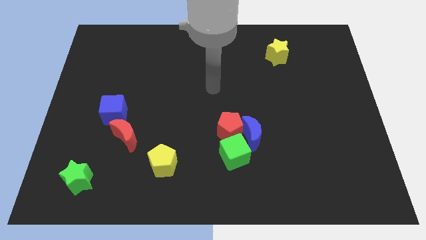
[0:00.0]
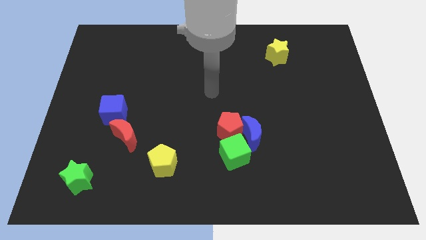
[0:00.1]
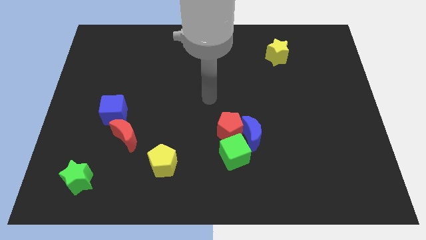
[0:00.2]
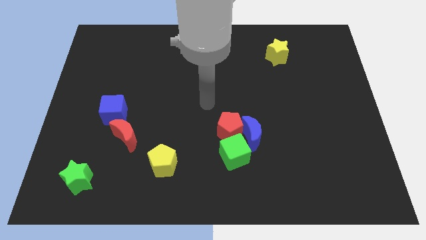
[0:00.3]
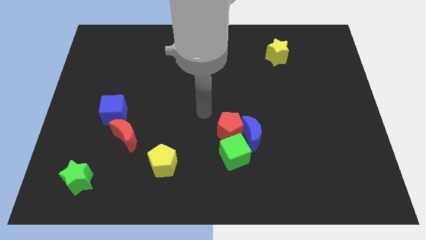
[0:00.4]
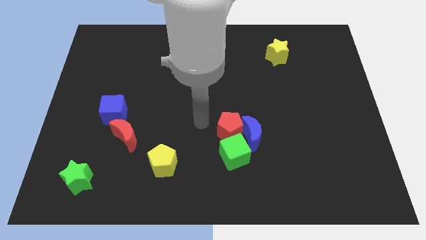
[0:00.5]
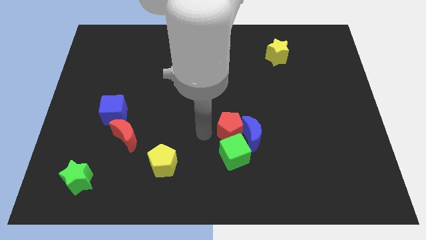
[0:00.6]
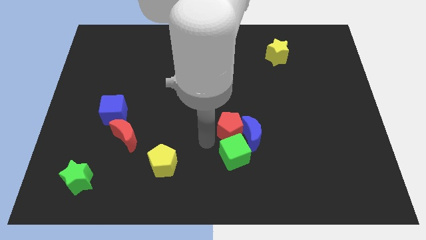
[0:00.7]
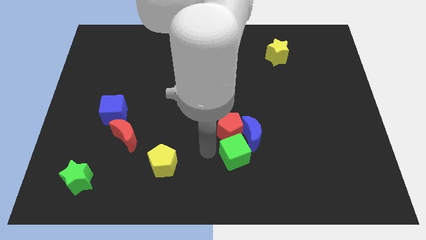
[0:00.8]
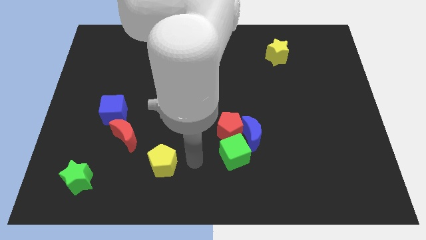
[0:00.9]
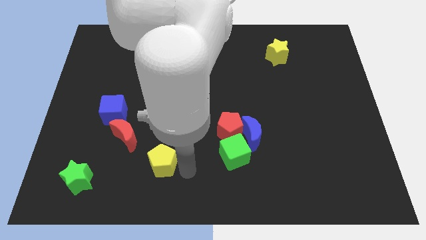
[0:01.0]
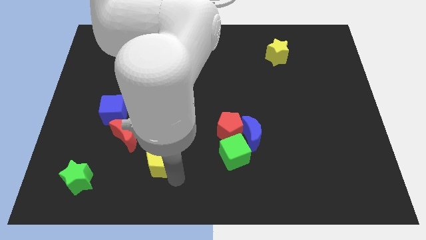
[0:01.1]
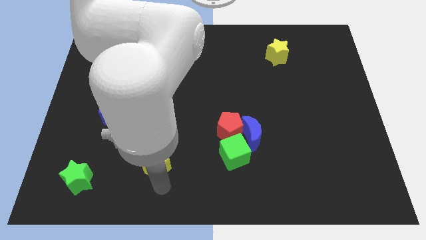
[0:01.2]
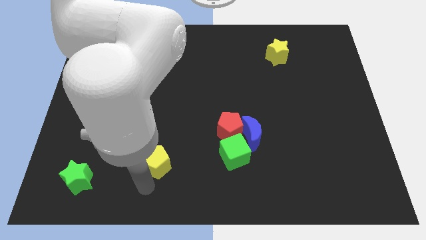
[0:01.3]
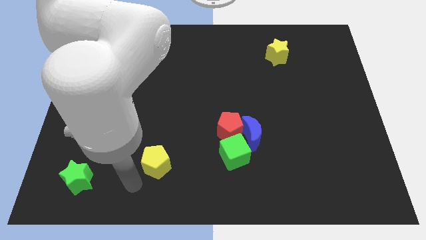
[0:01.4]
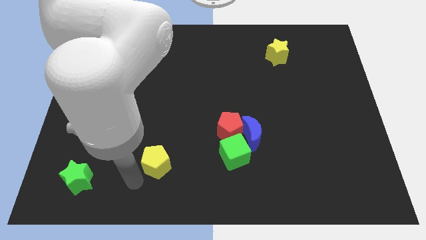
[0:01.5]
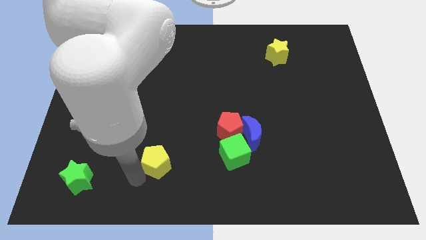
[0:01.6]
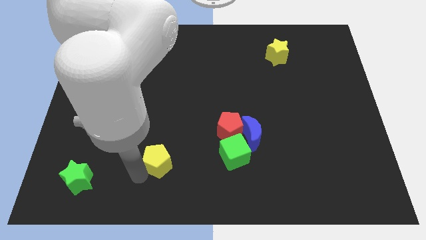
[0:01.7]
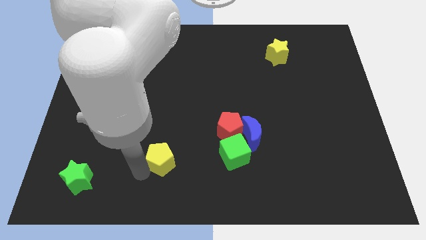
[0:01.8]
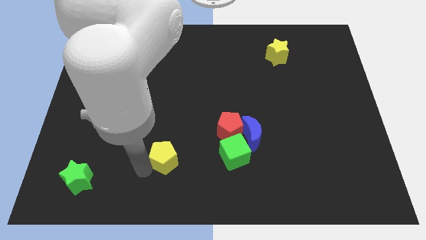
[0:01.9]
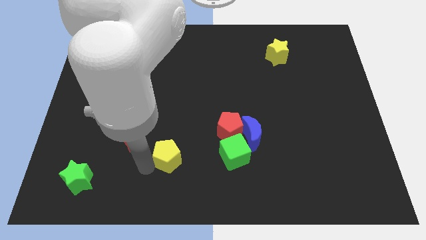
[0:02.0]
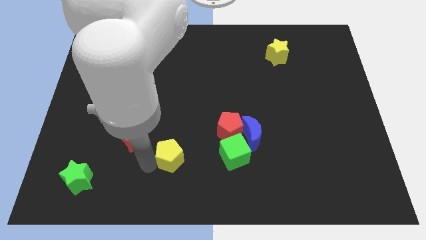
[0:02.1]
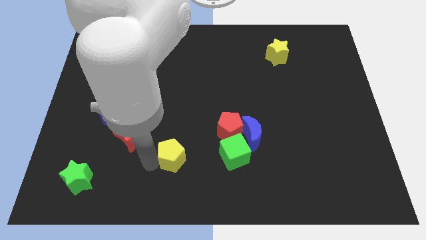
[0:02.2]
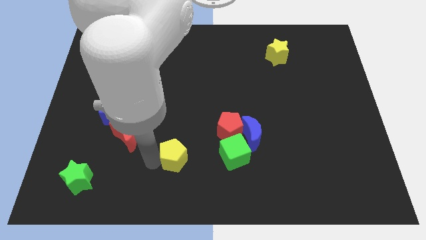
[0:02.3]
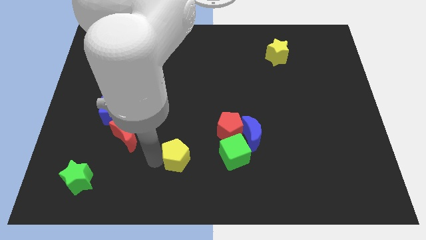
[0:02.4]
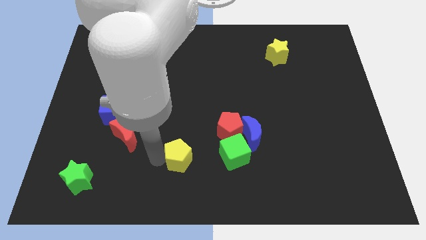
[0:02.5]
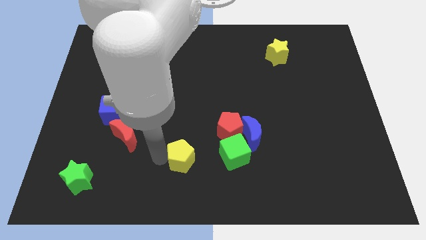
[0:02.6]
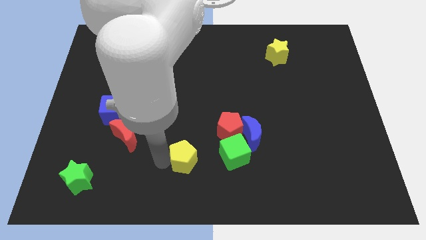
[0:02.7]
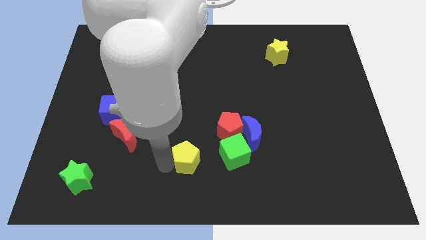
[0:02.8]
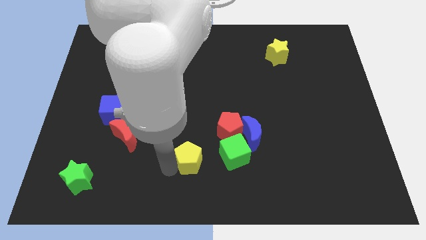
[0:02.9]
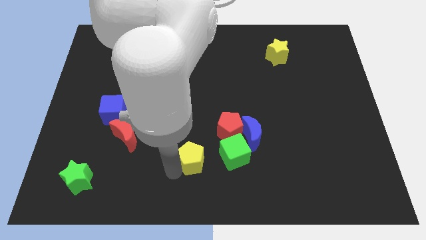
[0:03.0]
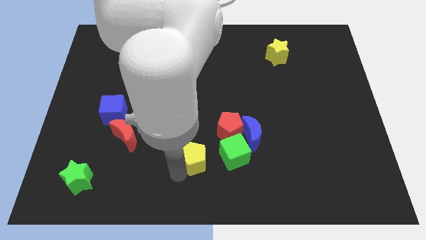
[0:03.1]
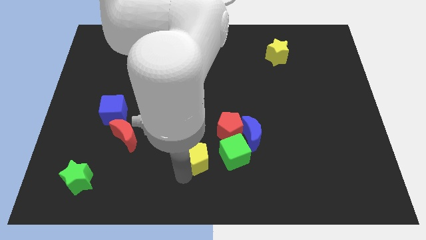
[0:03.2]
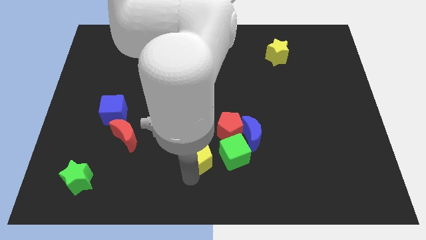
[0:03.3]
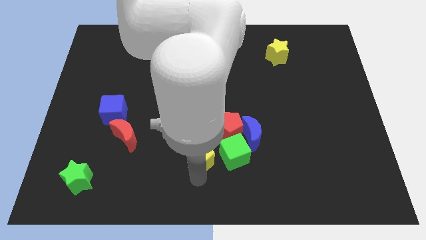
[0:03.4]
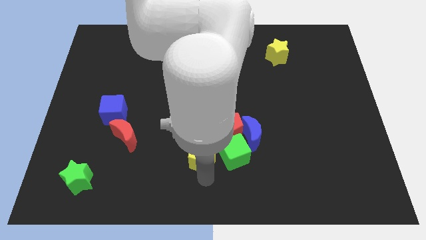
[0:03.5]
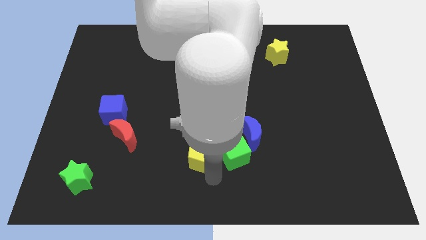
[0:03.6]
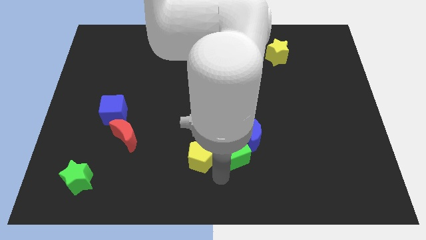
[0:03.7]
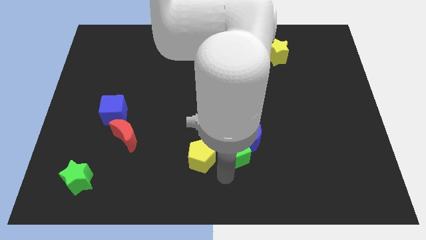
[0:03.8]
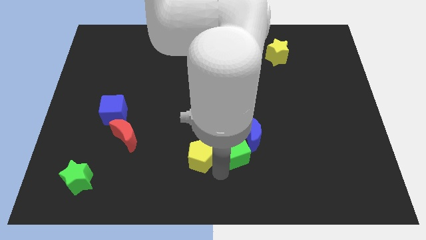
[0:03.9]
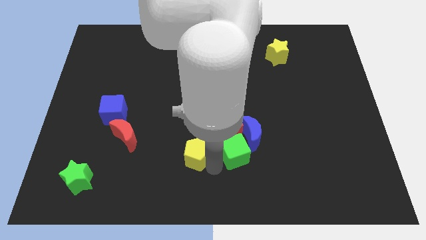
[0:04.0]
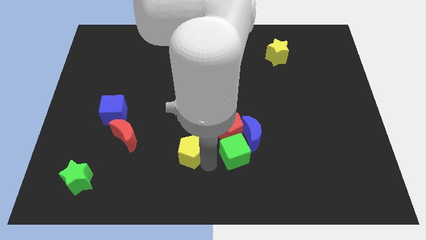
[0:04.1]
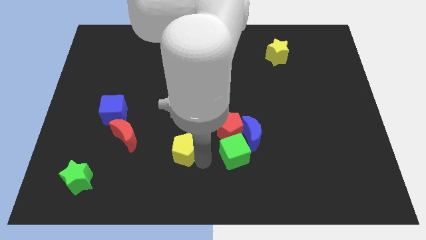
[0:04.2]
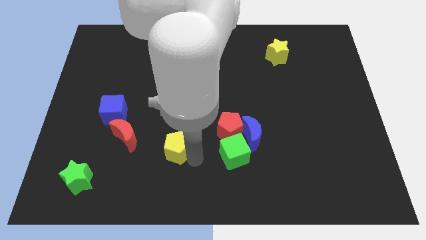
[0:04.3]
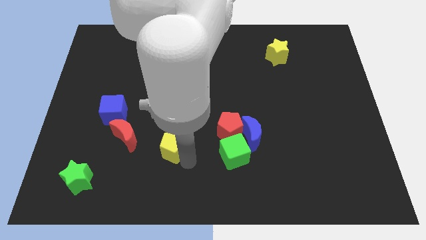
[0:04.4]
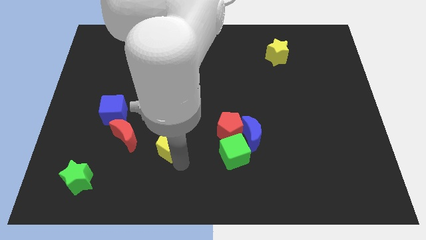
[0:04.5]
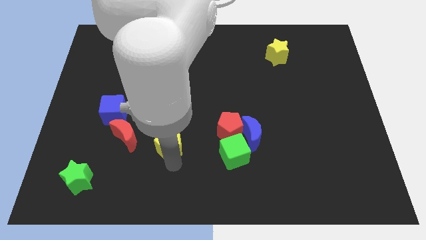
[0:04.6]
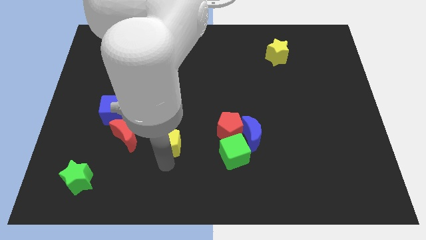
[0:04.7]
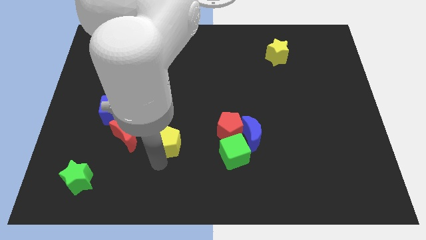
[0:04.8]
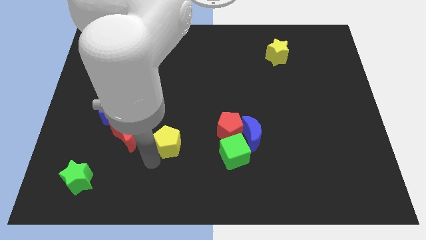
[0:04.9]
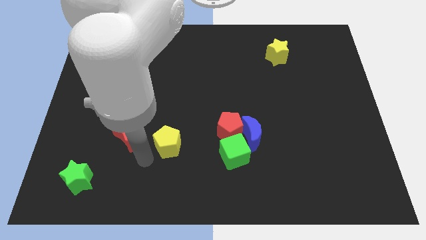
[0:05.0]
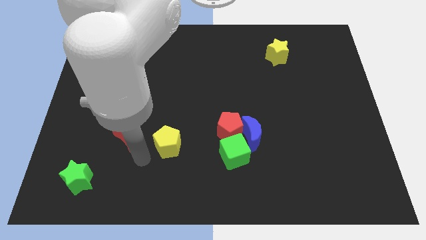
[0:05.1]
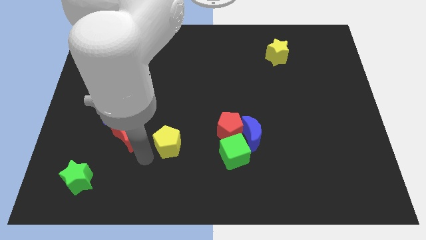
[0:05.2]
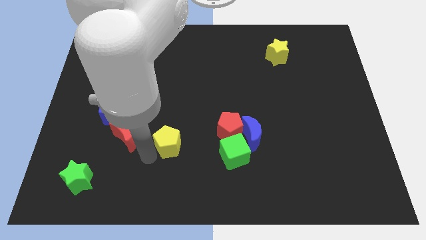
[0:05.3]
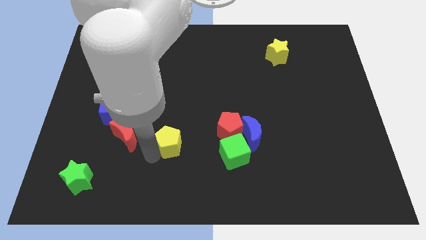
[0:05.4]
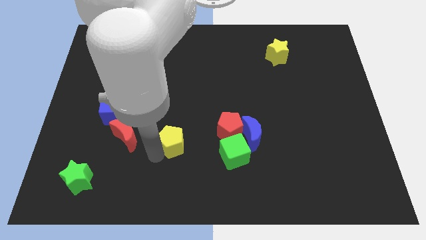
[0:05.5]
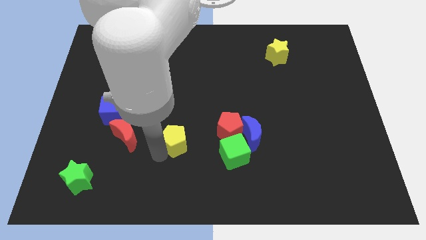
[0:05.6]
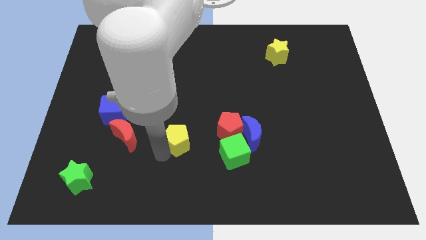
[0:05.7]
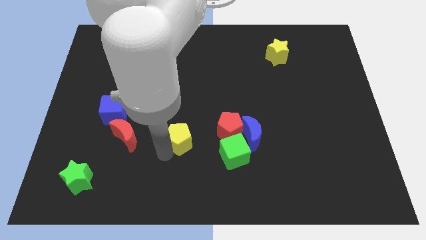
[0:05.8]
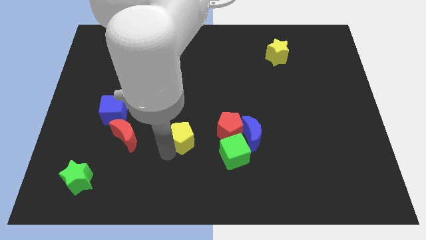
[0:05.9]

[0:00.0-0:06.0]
slightly push the yellow pentagon diagonally upwards and right

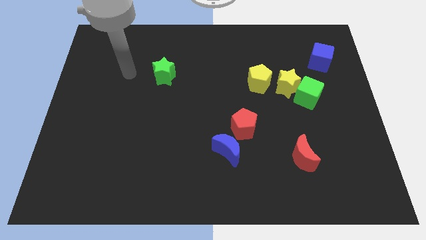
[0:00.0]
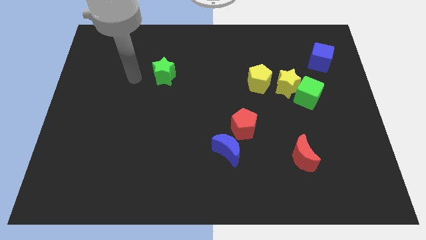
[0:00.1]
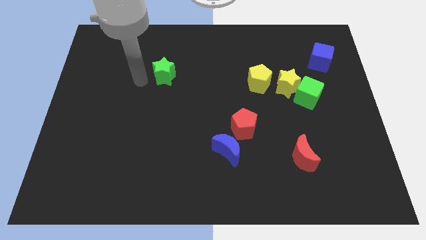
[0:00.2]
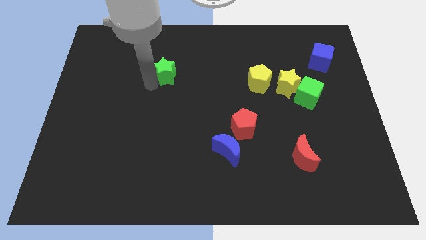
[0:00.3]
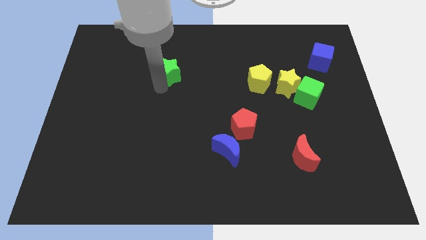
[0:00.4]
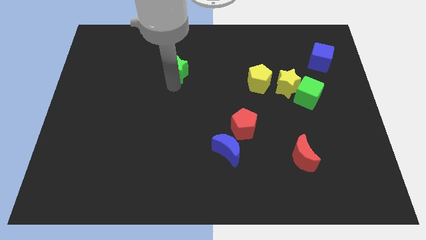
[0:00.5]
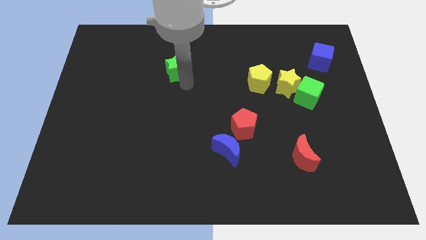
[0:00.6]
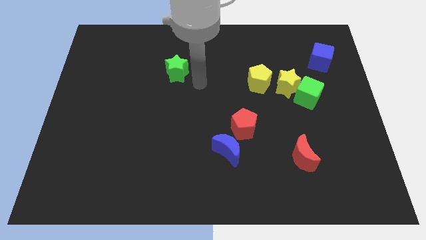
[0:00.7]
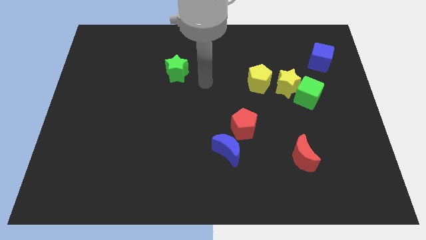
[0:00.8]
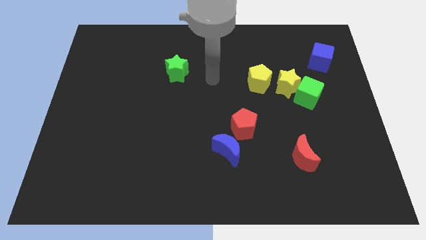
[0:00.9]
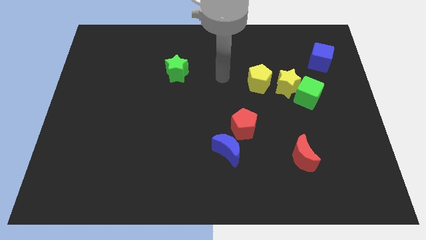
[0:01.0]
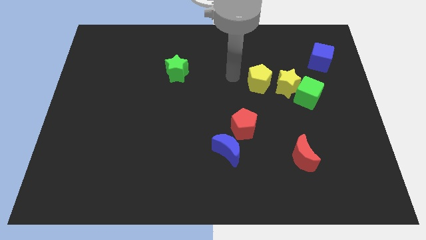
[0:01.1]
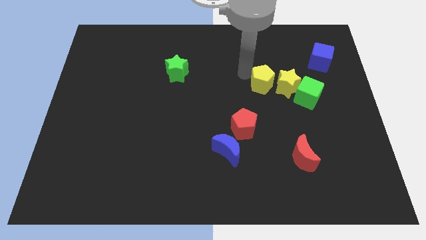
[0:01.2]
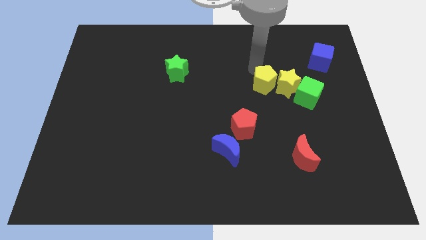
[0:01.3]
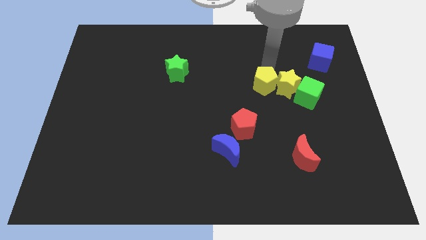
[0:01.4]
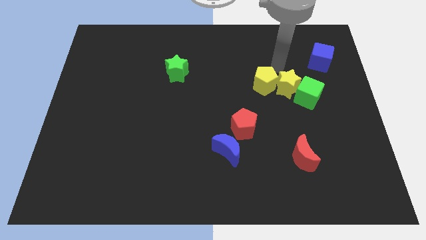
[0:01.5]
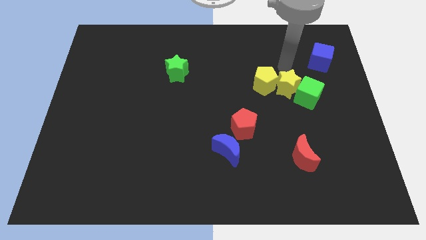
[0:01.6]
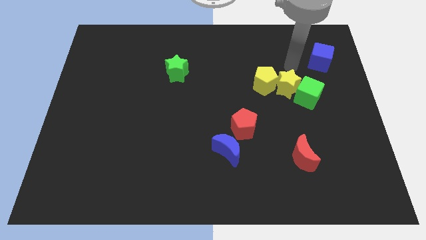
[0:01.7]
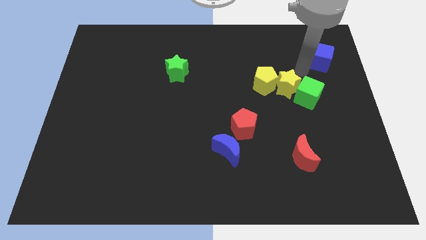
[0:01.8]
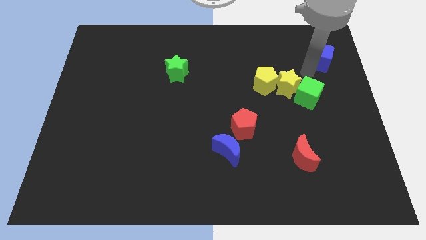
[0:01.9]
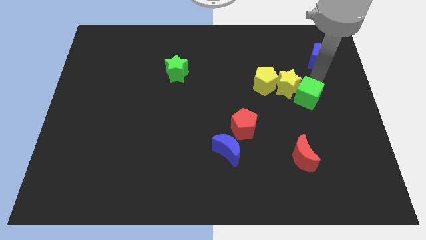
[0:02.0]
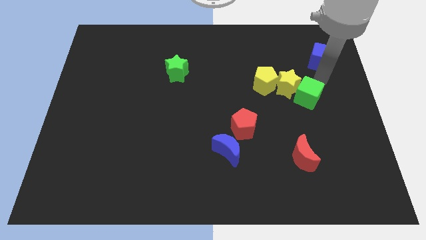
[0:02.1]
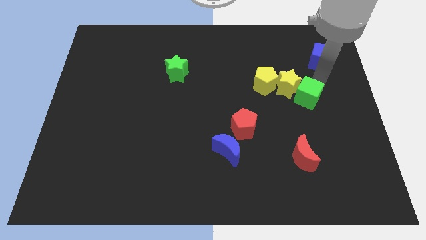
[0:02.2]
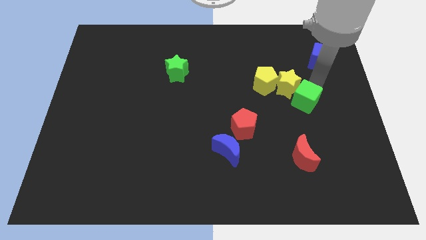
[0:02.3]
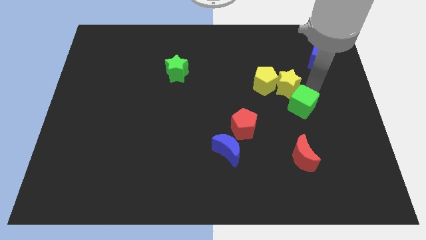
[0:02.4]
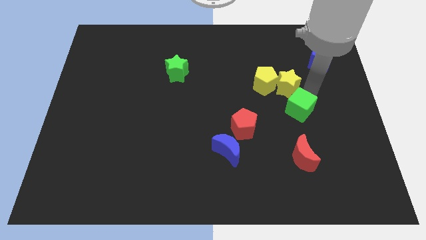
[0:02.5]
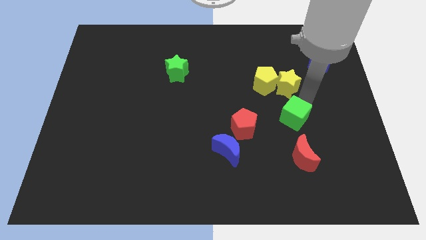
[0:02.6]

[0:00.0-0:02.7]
slightly push the green cube down and then left
